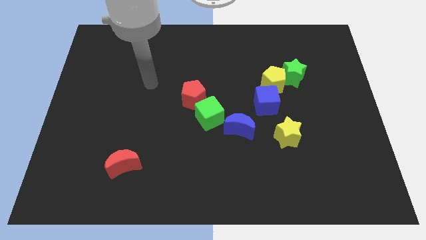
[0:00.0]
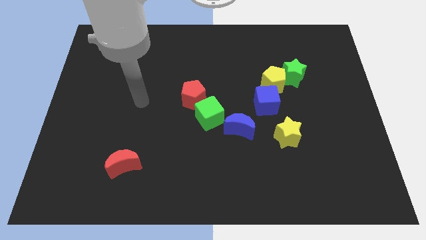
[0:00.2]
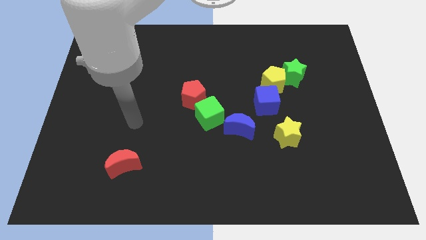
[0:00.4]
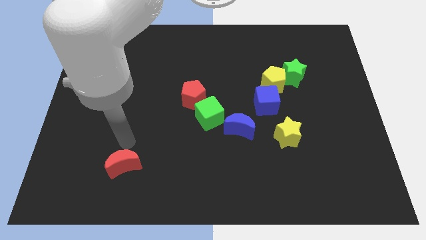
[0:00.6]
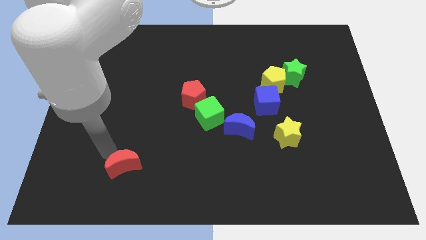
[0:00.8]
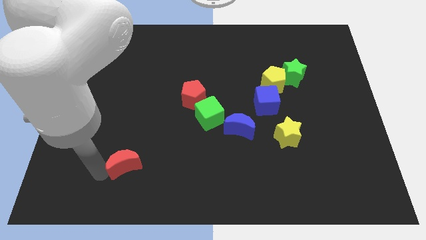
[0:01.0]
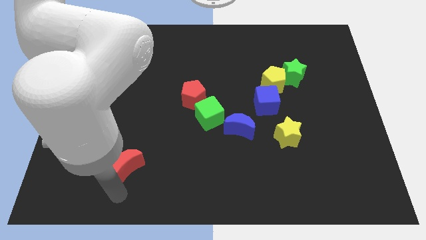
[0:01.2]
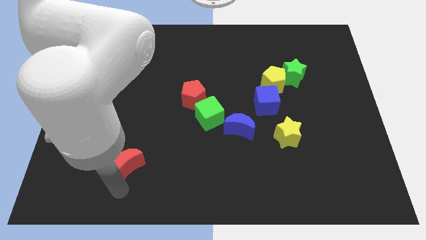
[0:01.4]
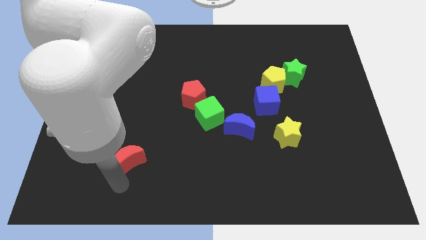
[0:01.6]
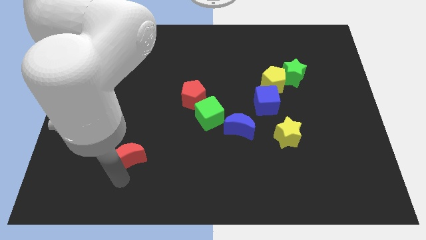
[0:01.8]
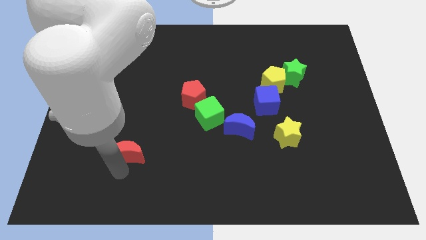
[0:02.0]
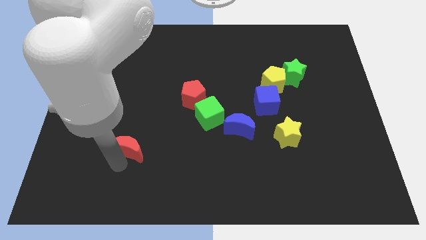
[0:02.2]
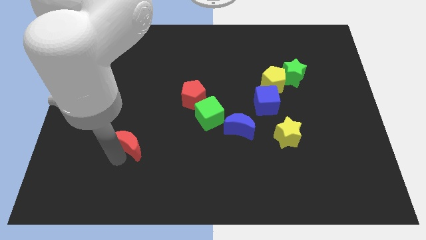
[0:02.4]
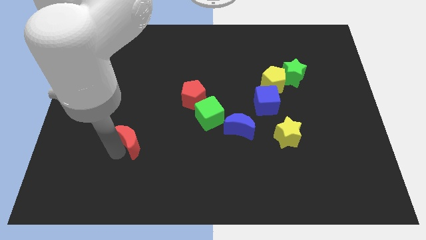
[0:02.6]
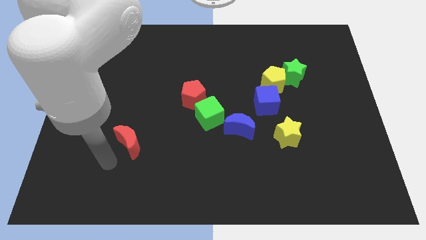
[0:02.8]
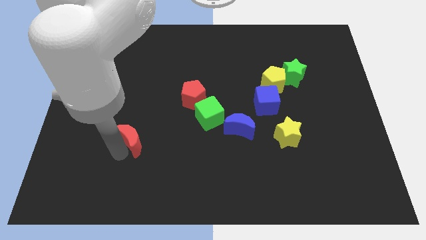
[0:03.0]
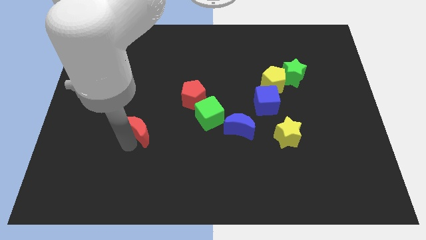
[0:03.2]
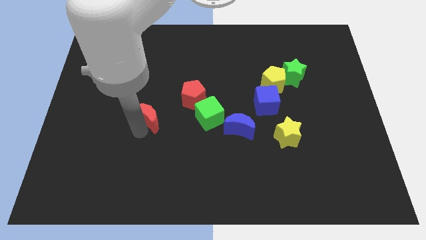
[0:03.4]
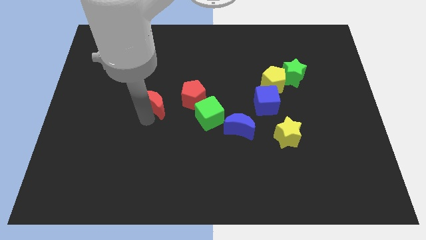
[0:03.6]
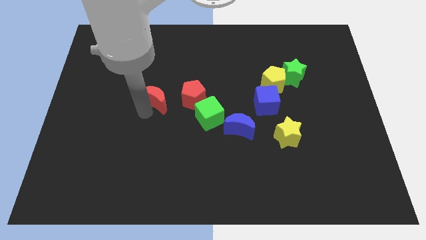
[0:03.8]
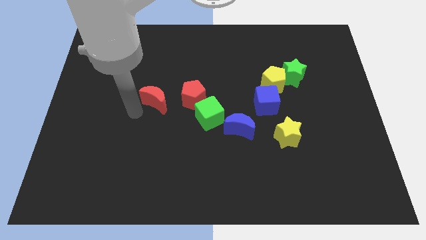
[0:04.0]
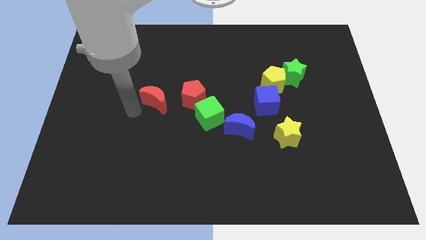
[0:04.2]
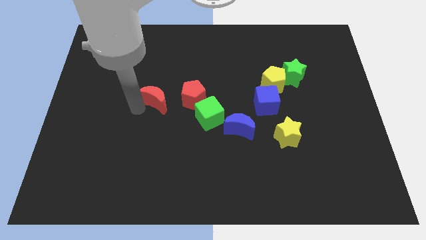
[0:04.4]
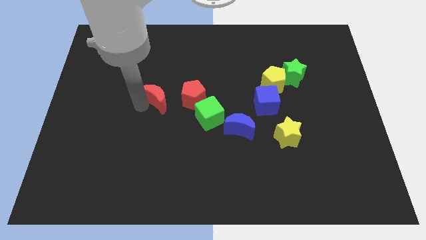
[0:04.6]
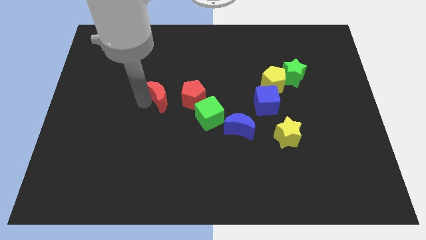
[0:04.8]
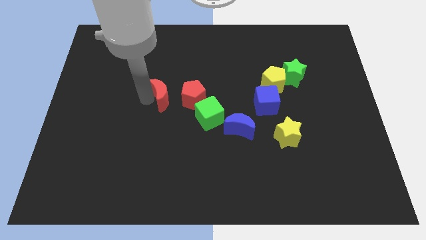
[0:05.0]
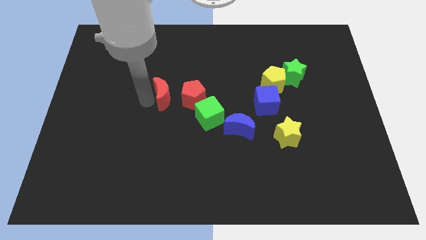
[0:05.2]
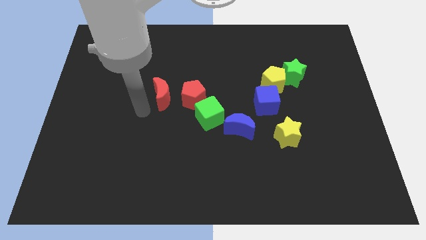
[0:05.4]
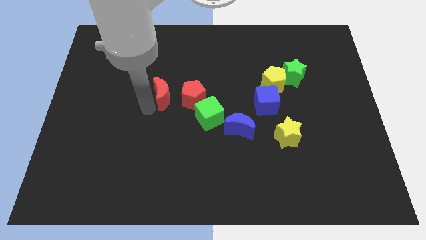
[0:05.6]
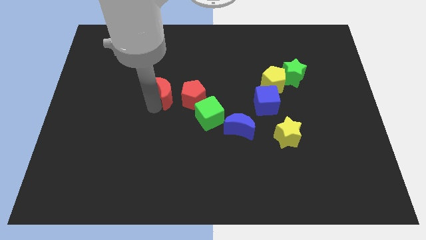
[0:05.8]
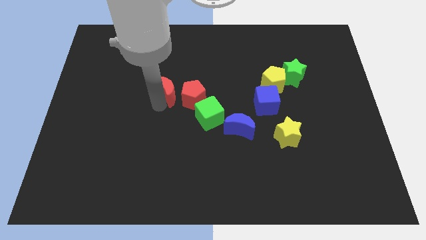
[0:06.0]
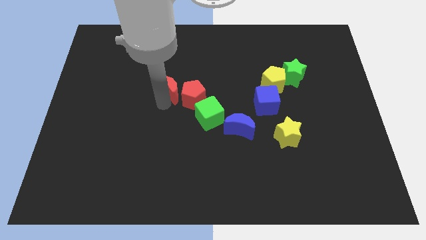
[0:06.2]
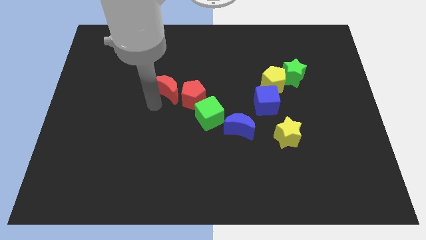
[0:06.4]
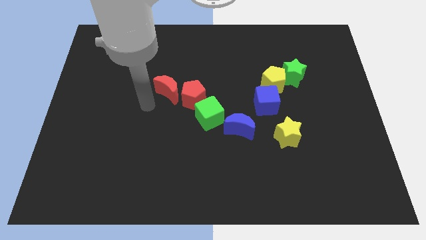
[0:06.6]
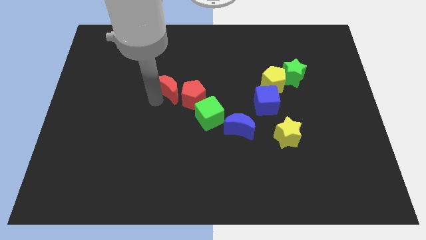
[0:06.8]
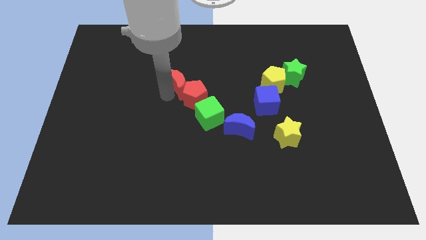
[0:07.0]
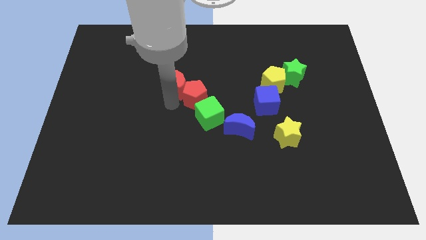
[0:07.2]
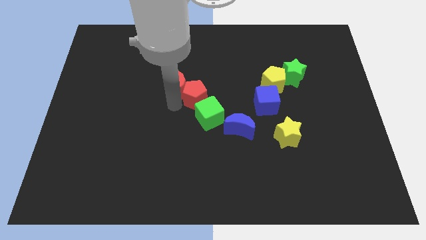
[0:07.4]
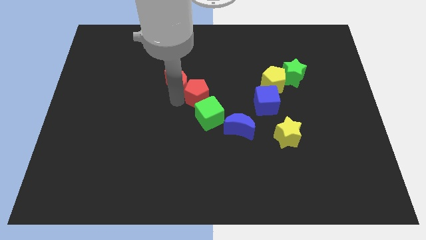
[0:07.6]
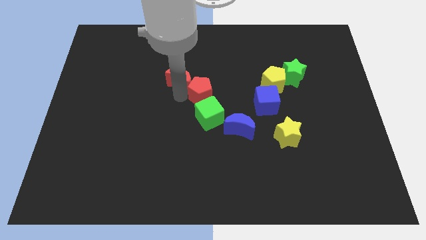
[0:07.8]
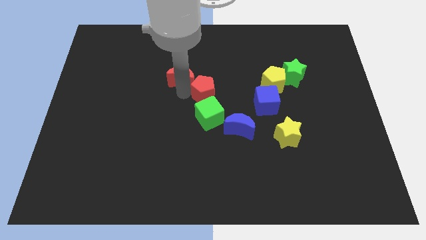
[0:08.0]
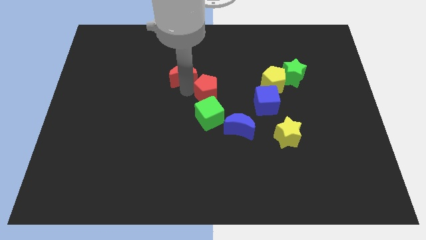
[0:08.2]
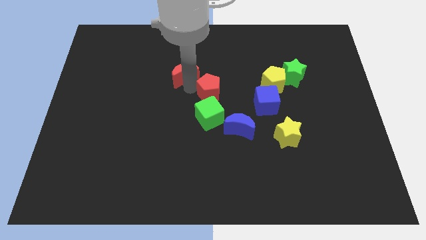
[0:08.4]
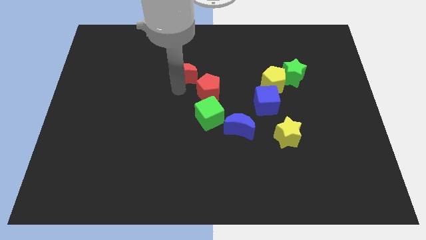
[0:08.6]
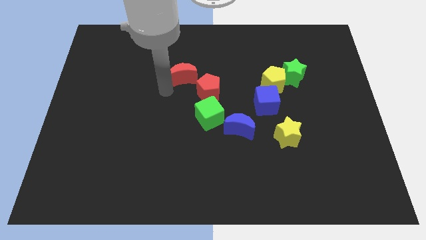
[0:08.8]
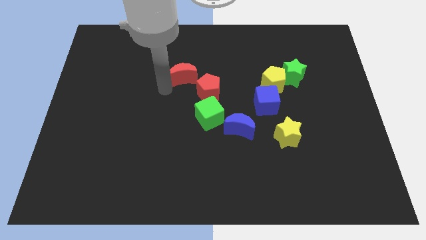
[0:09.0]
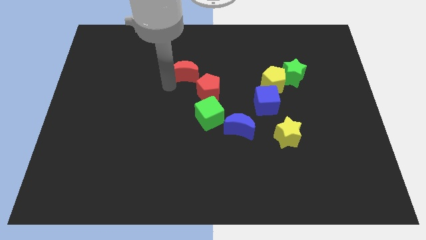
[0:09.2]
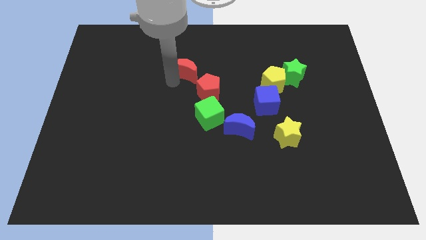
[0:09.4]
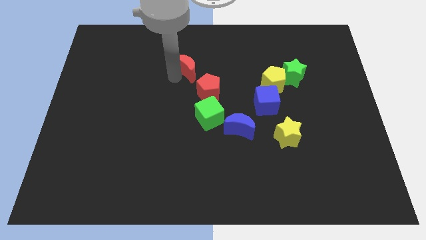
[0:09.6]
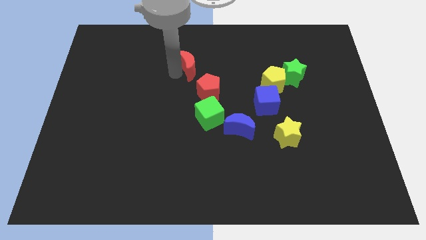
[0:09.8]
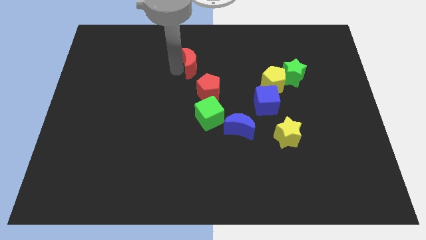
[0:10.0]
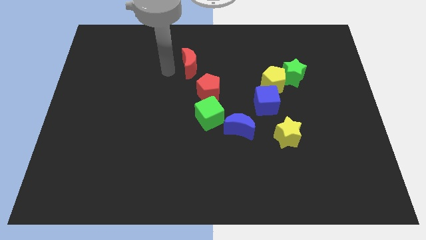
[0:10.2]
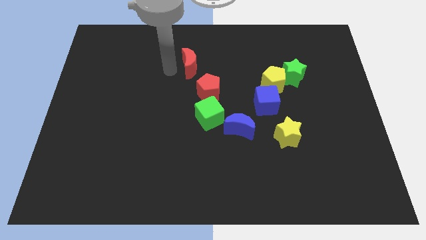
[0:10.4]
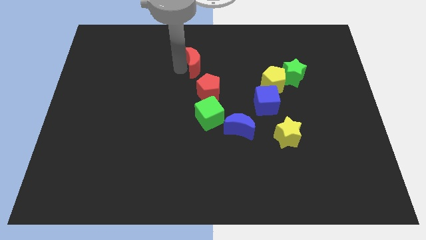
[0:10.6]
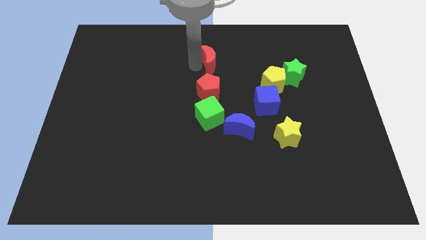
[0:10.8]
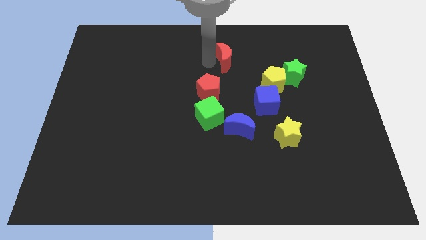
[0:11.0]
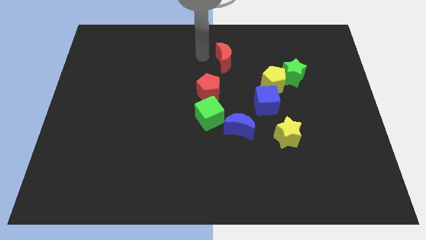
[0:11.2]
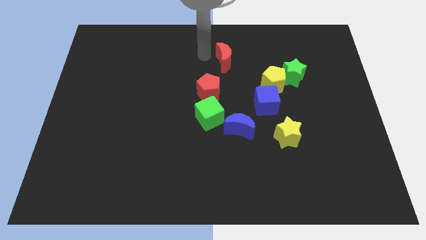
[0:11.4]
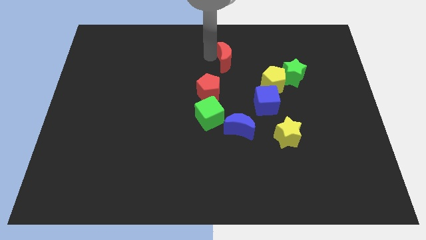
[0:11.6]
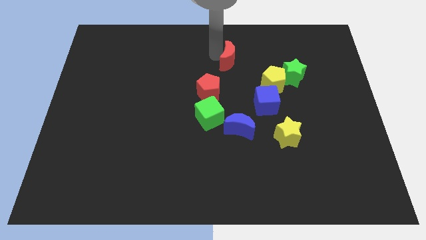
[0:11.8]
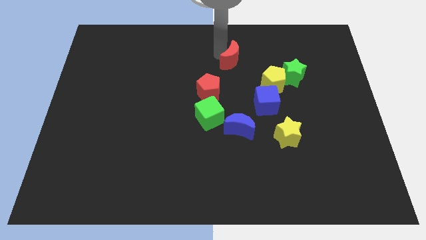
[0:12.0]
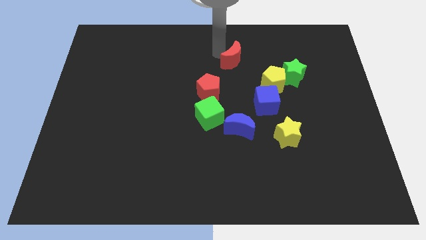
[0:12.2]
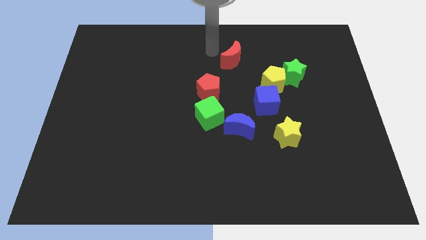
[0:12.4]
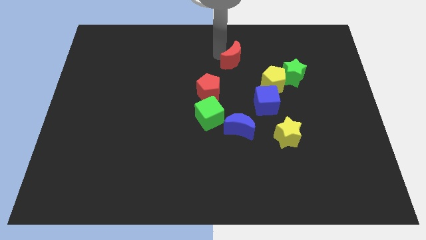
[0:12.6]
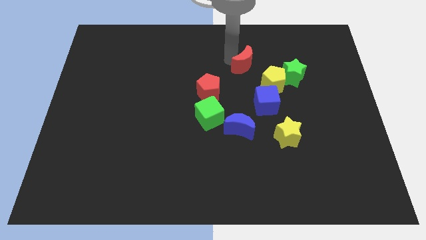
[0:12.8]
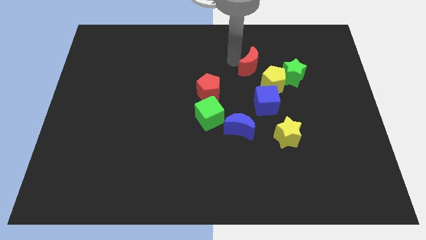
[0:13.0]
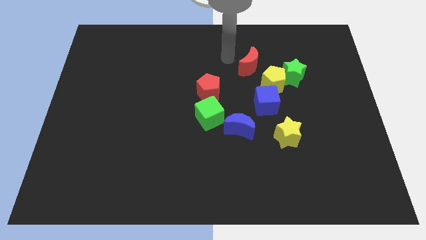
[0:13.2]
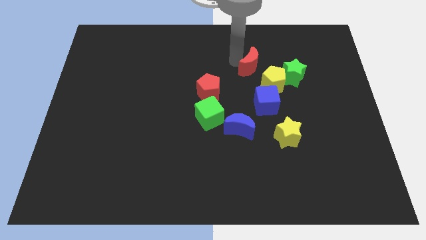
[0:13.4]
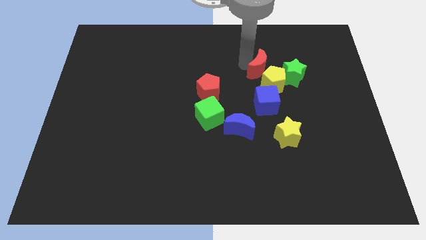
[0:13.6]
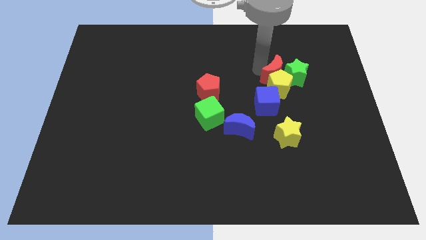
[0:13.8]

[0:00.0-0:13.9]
put the red moon to the green star
